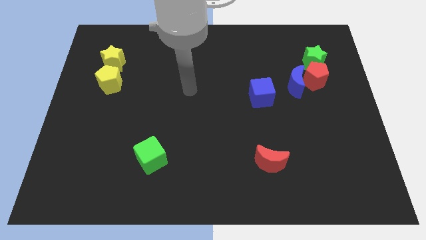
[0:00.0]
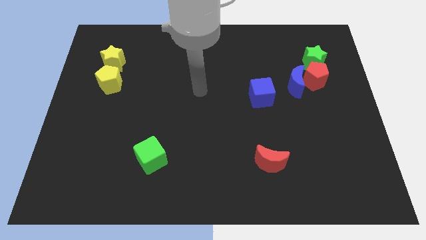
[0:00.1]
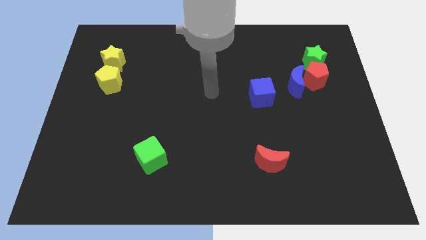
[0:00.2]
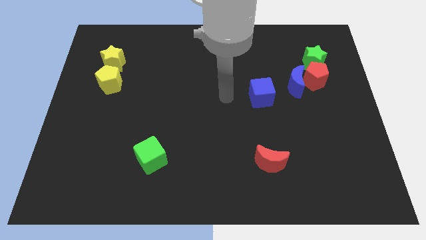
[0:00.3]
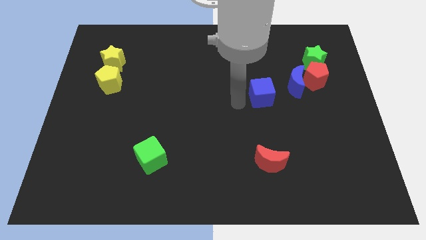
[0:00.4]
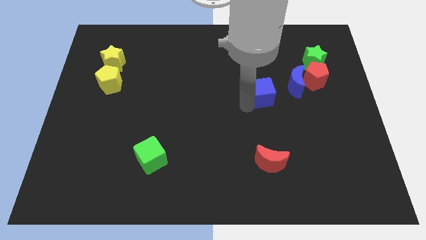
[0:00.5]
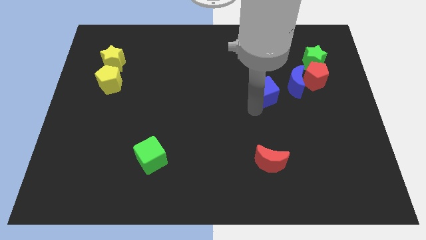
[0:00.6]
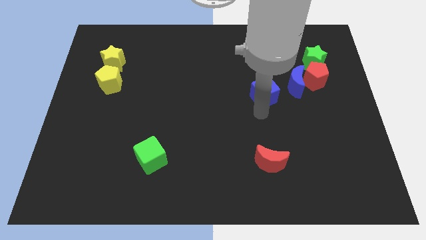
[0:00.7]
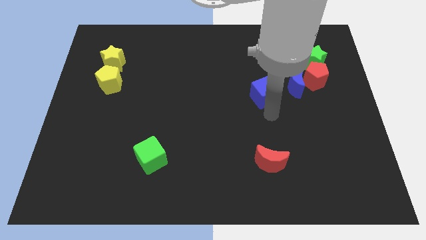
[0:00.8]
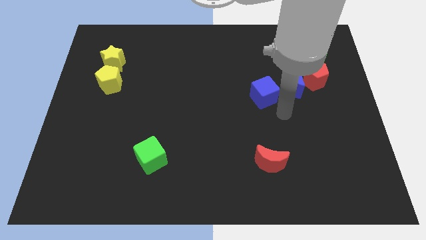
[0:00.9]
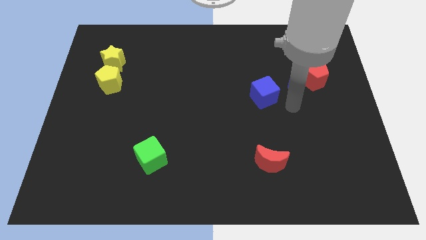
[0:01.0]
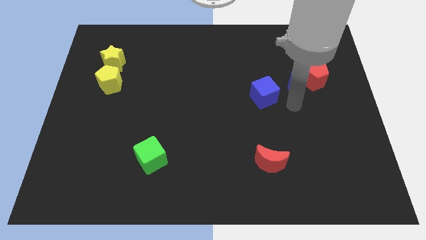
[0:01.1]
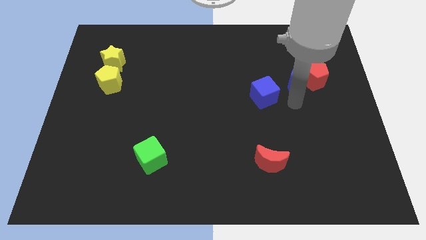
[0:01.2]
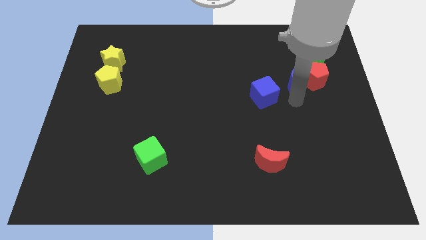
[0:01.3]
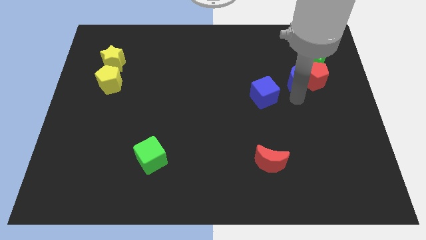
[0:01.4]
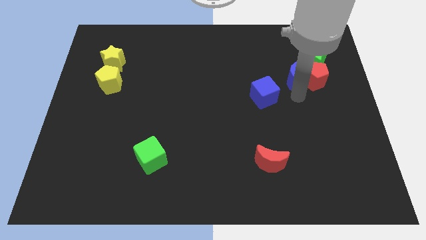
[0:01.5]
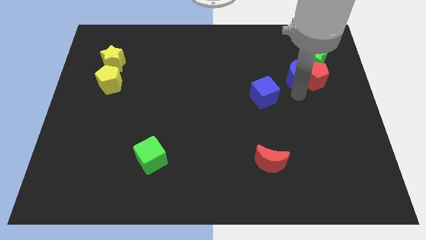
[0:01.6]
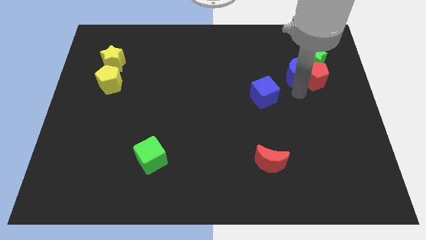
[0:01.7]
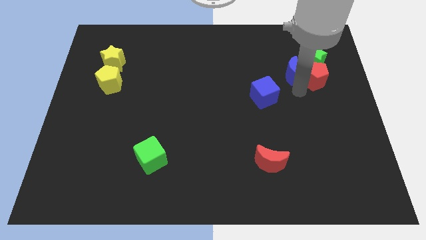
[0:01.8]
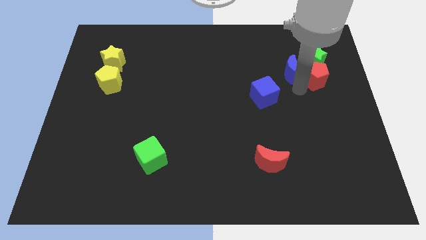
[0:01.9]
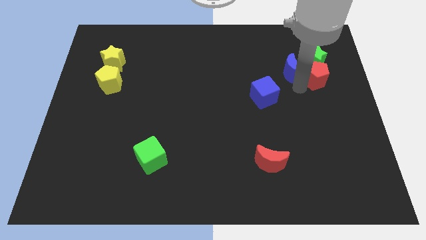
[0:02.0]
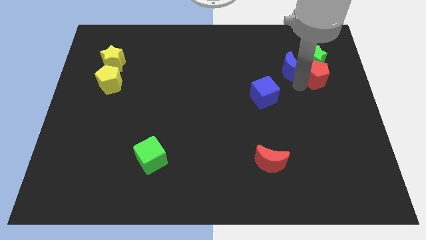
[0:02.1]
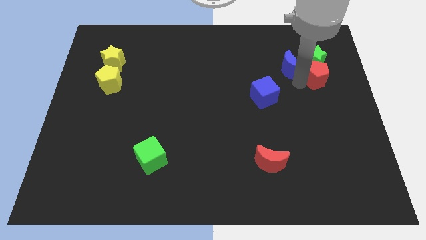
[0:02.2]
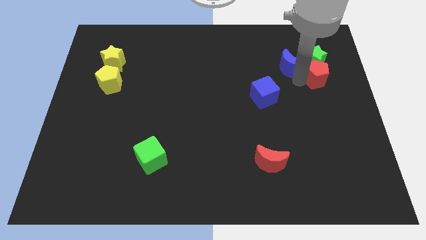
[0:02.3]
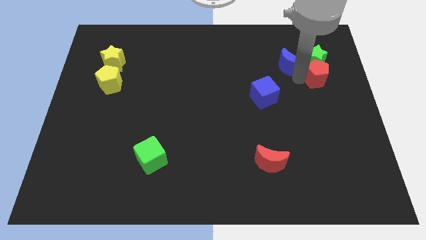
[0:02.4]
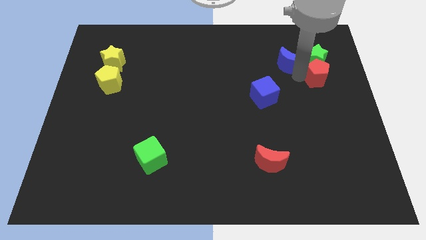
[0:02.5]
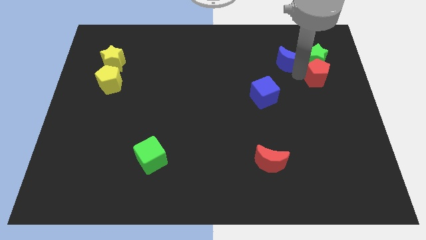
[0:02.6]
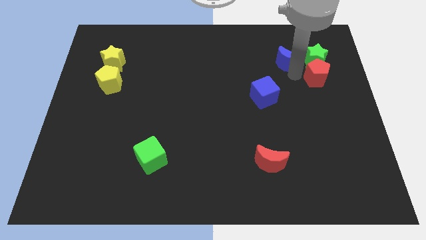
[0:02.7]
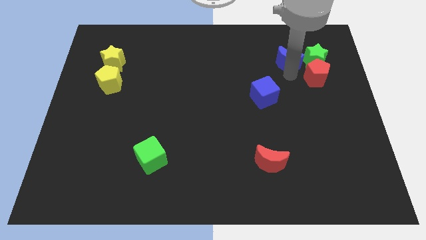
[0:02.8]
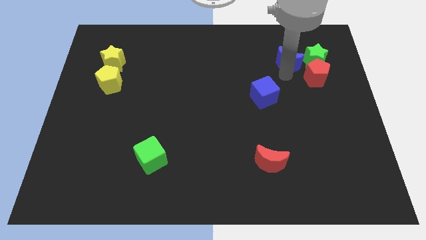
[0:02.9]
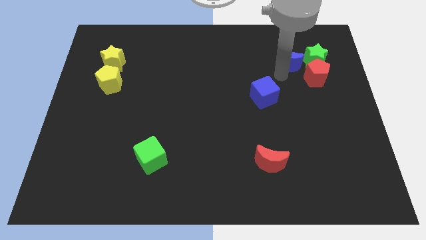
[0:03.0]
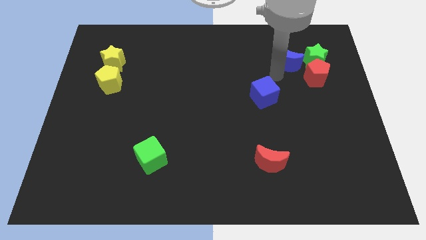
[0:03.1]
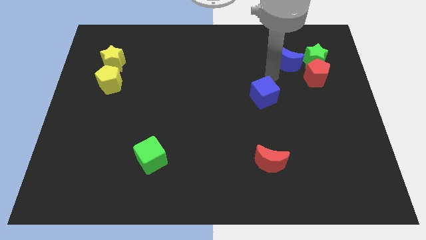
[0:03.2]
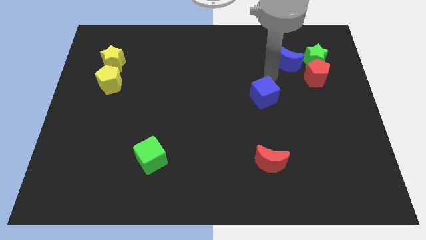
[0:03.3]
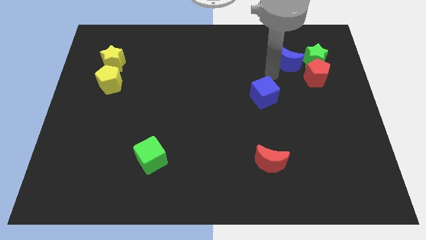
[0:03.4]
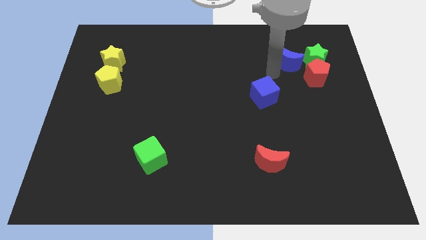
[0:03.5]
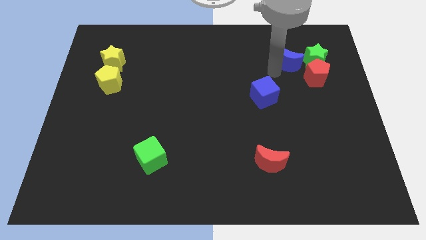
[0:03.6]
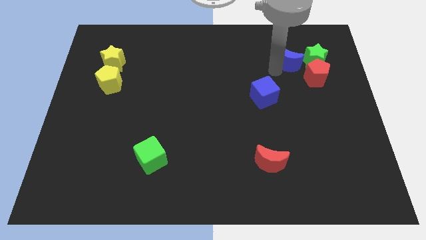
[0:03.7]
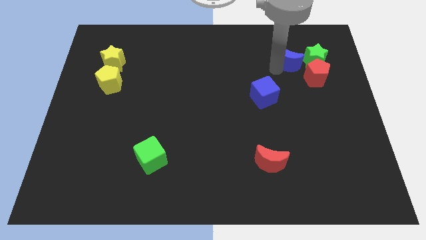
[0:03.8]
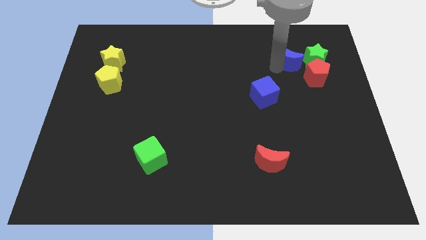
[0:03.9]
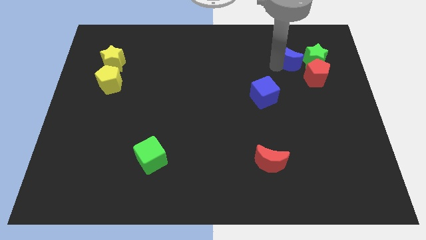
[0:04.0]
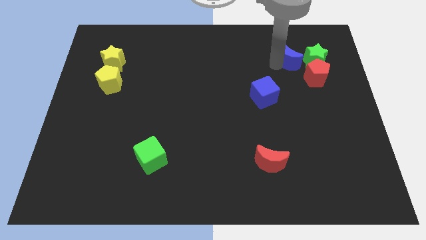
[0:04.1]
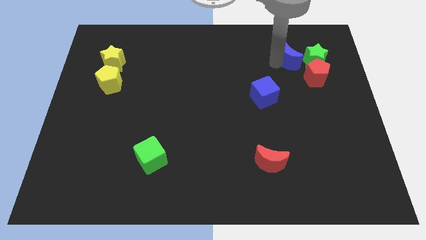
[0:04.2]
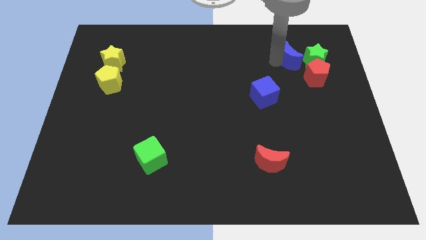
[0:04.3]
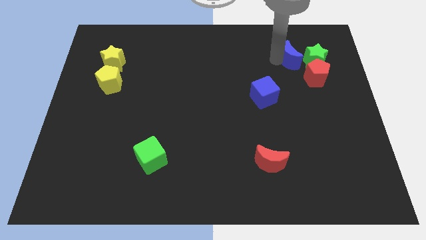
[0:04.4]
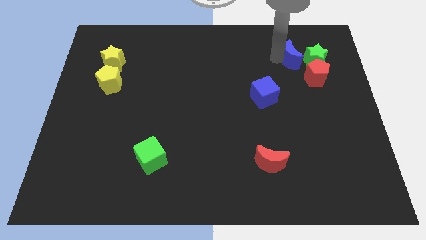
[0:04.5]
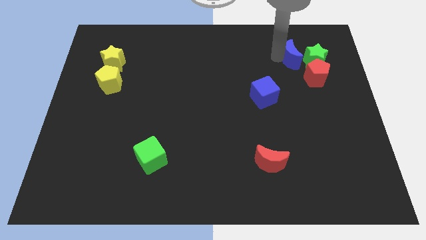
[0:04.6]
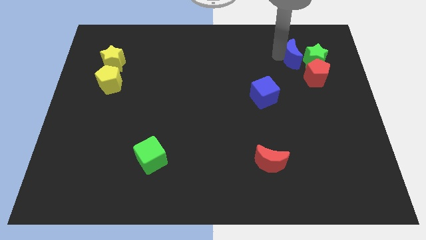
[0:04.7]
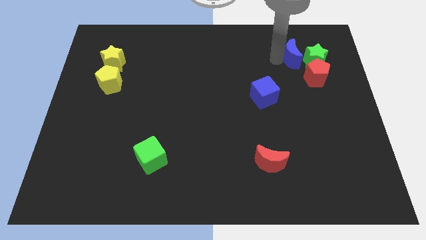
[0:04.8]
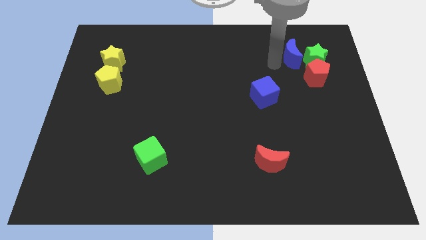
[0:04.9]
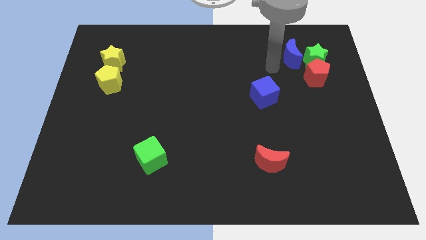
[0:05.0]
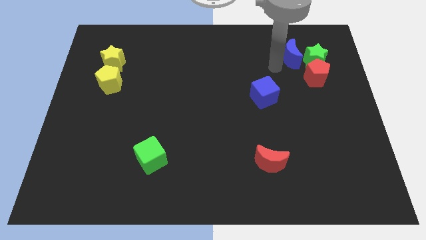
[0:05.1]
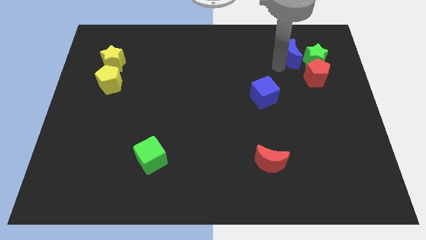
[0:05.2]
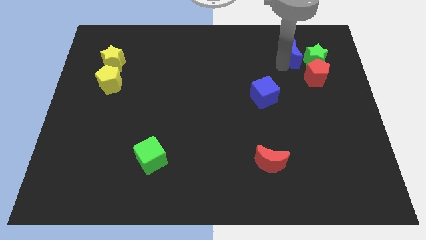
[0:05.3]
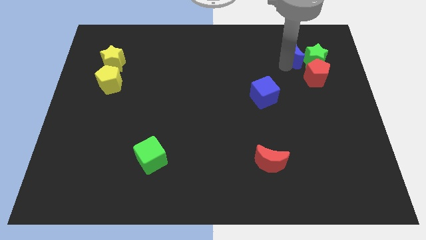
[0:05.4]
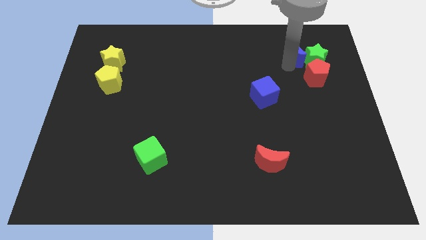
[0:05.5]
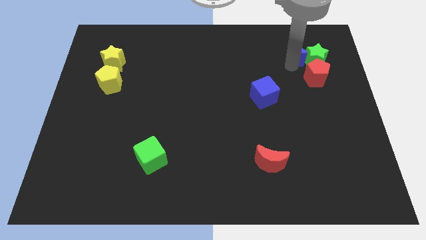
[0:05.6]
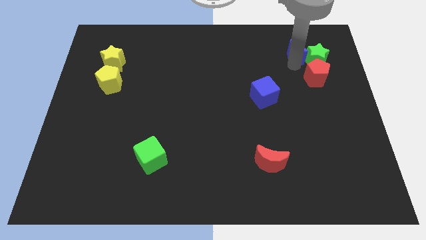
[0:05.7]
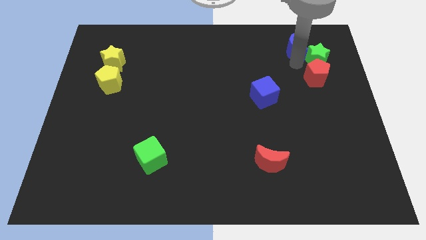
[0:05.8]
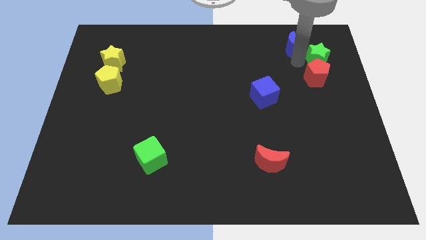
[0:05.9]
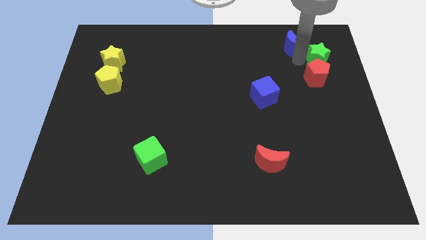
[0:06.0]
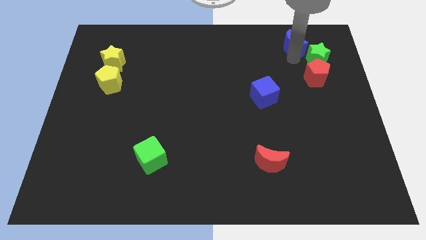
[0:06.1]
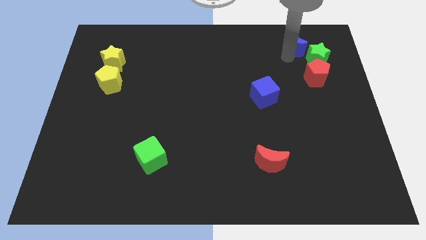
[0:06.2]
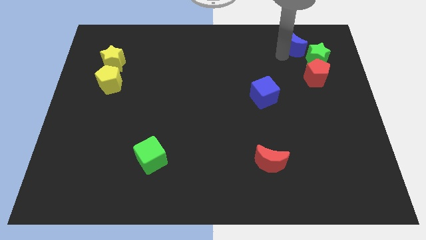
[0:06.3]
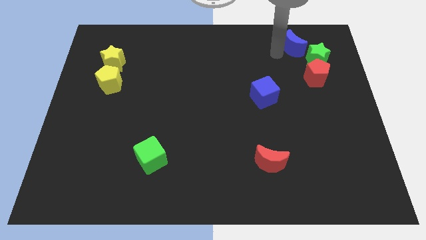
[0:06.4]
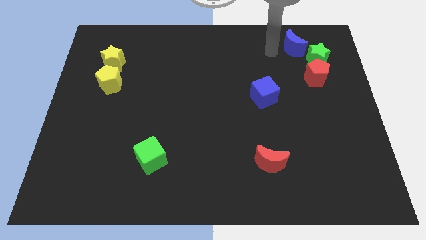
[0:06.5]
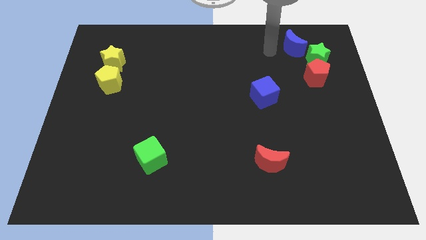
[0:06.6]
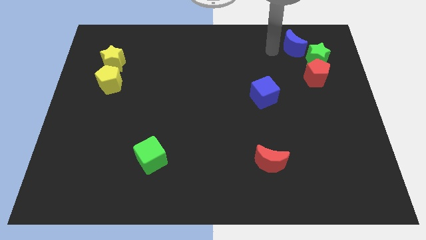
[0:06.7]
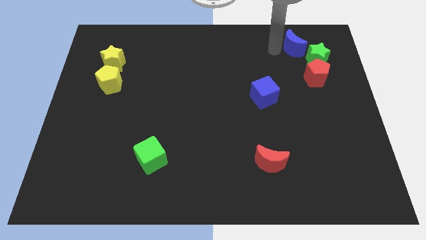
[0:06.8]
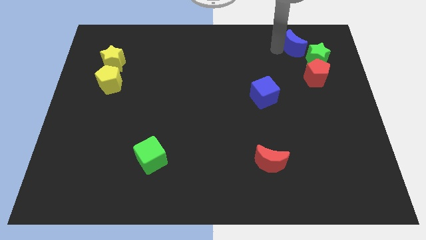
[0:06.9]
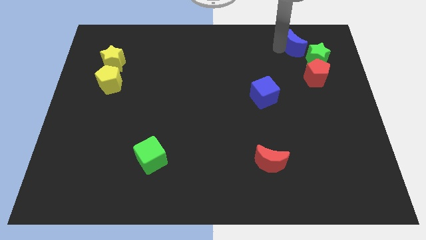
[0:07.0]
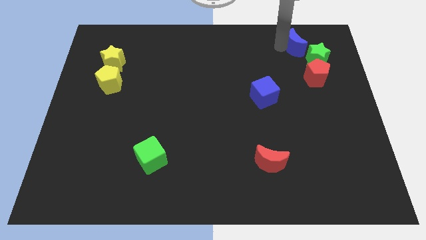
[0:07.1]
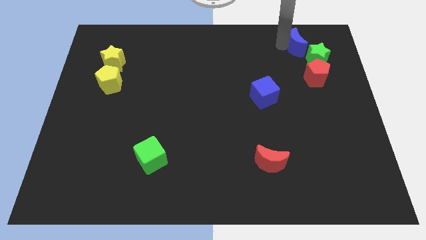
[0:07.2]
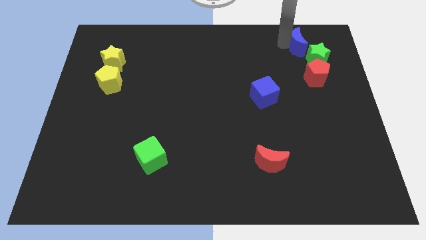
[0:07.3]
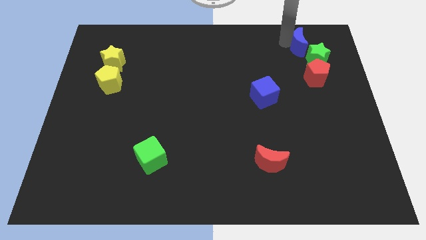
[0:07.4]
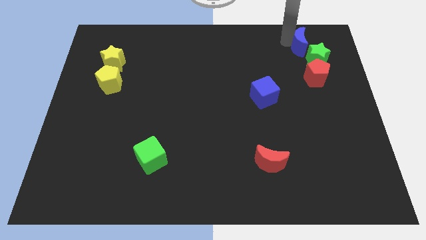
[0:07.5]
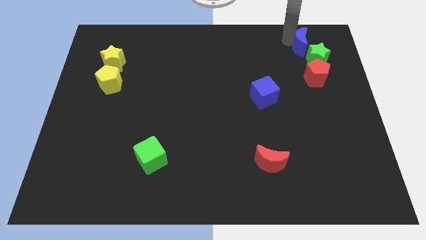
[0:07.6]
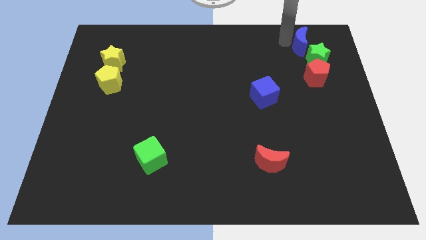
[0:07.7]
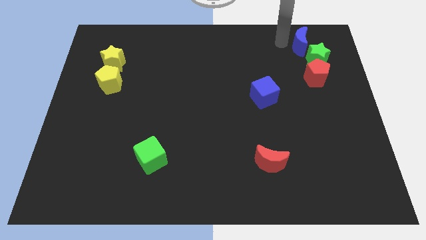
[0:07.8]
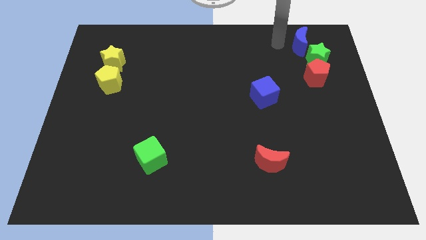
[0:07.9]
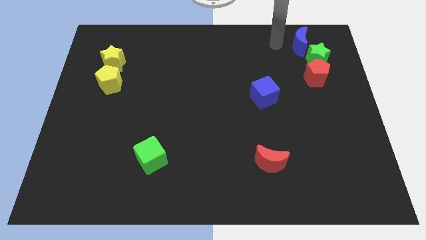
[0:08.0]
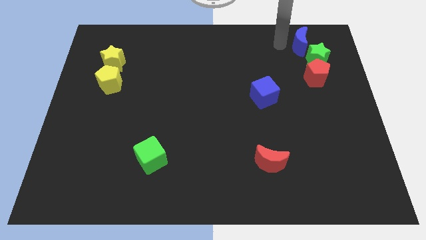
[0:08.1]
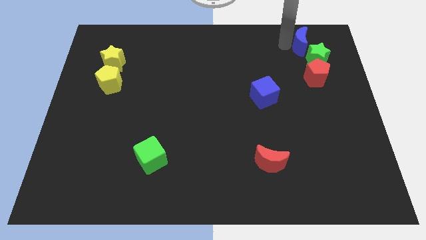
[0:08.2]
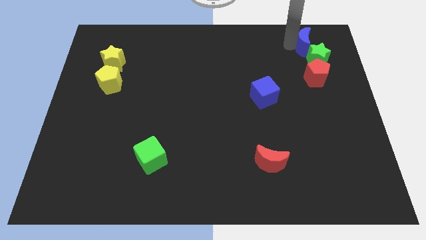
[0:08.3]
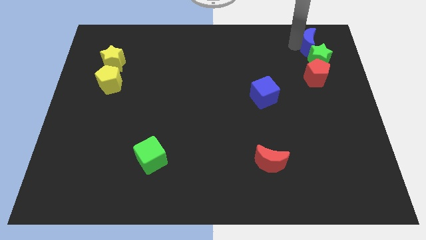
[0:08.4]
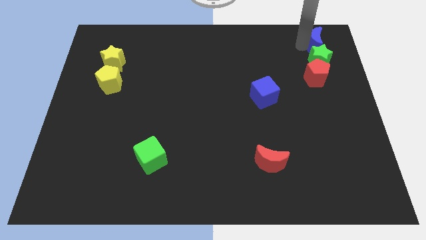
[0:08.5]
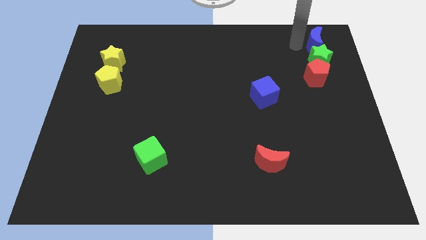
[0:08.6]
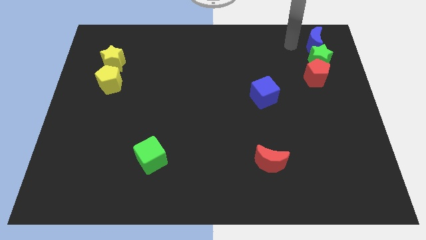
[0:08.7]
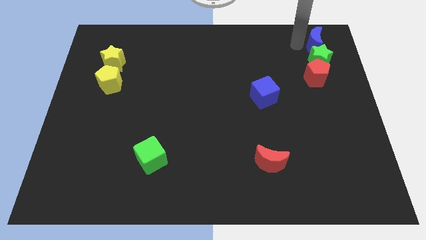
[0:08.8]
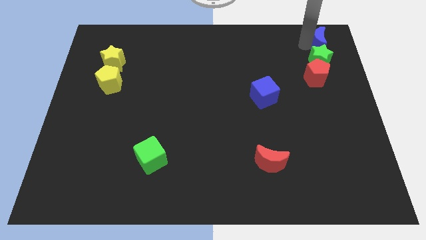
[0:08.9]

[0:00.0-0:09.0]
move the blue moon to the top right of the board
